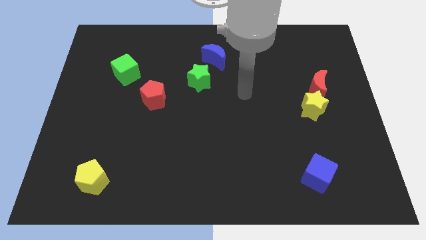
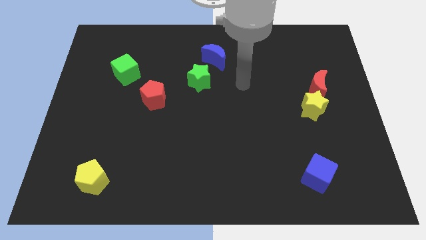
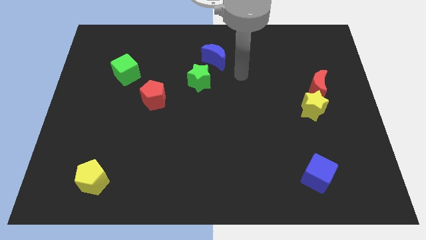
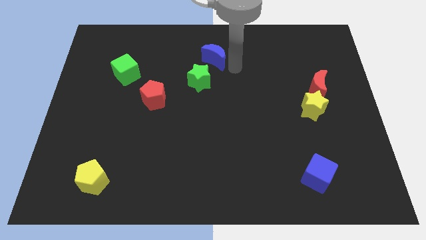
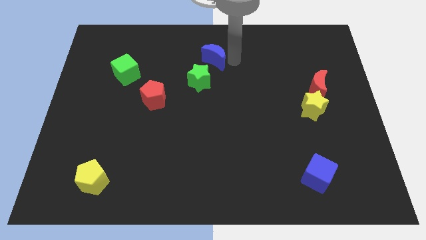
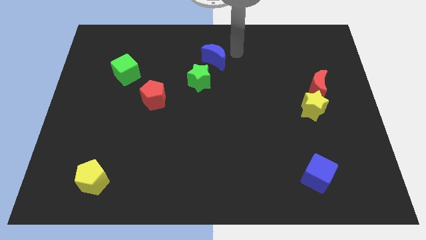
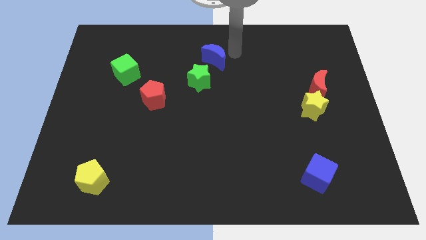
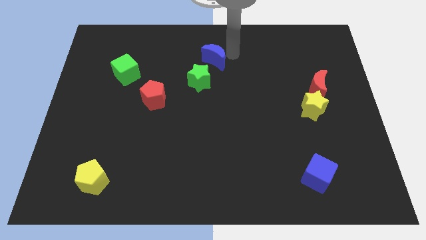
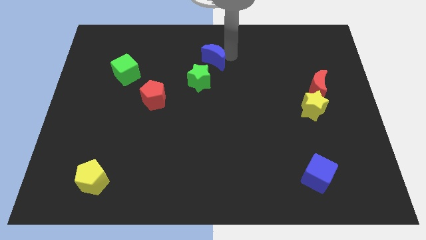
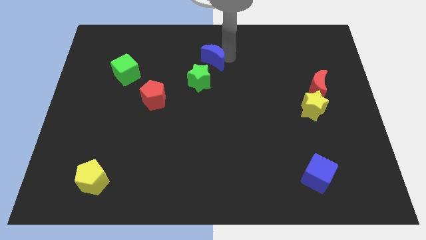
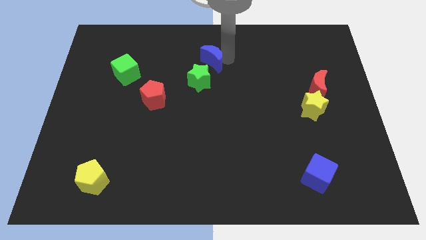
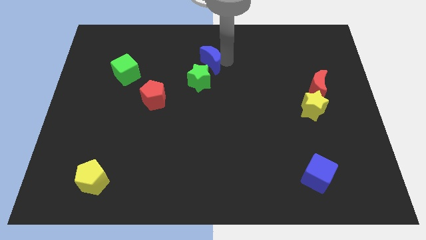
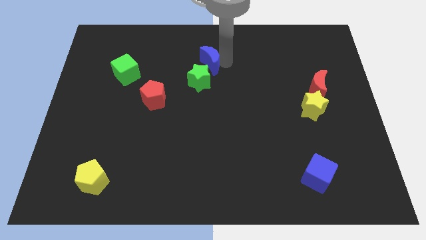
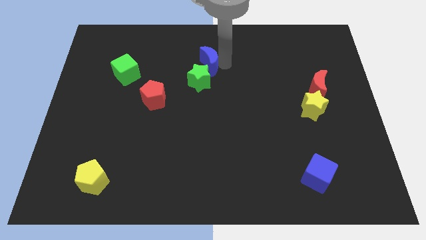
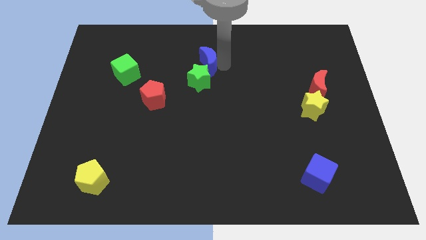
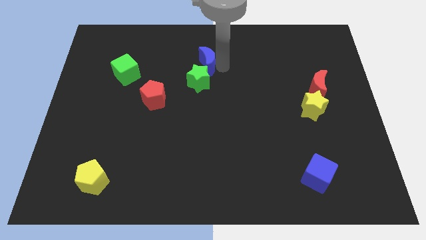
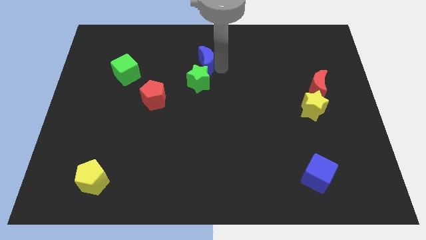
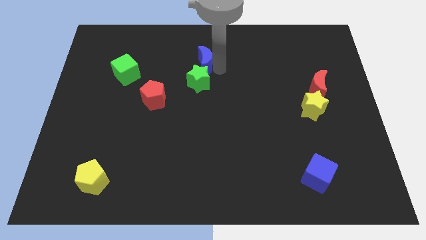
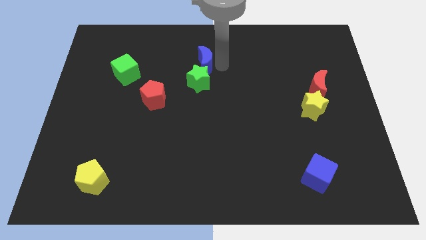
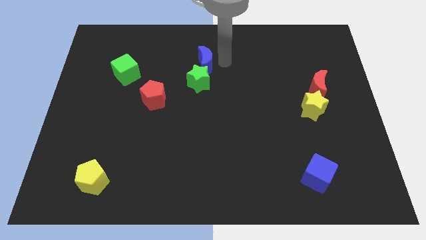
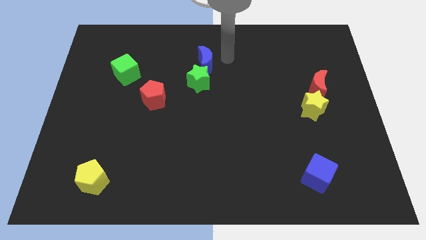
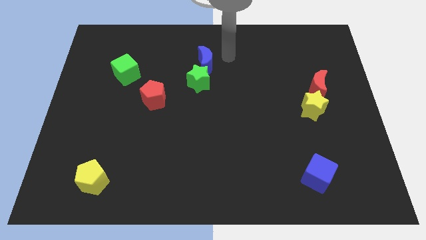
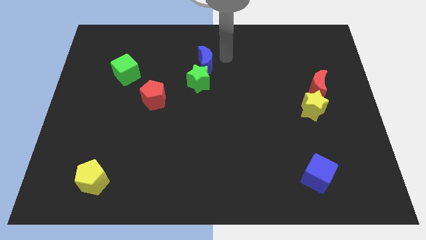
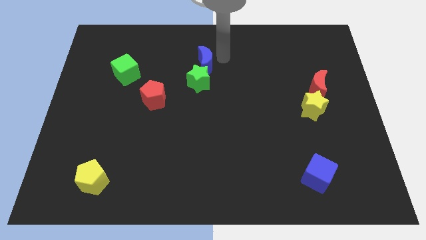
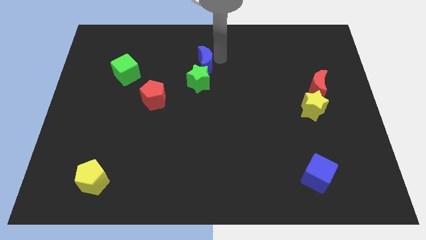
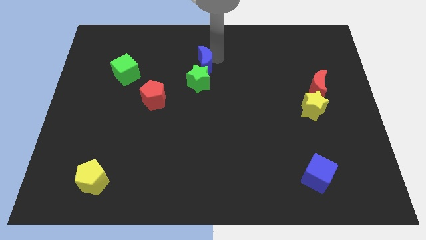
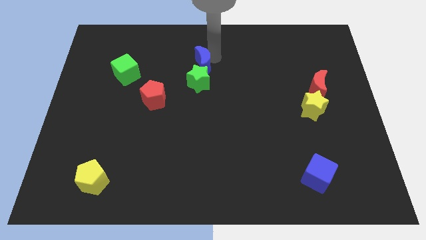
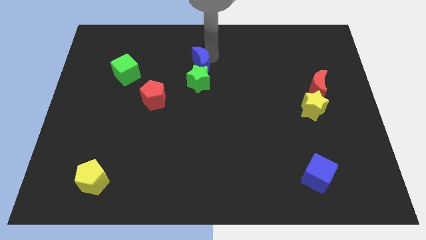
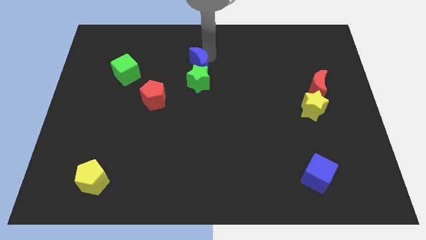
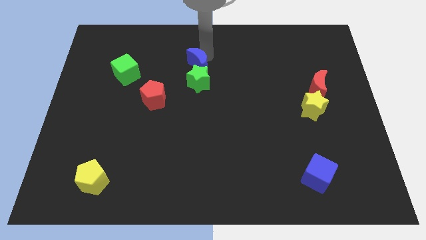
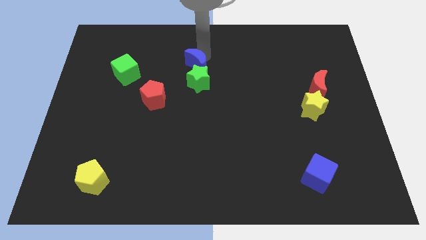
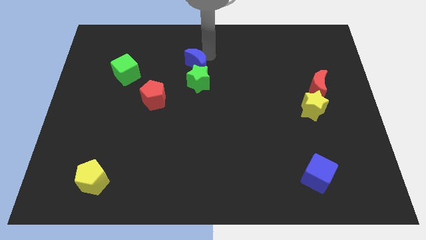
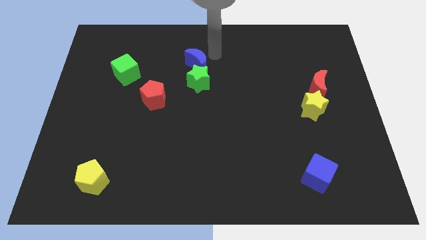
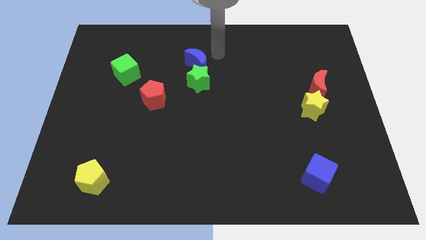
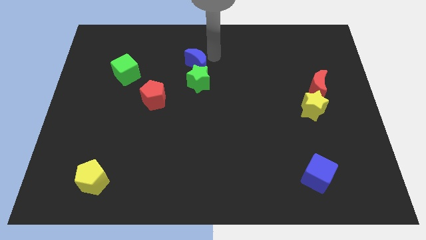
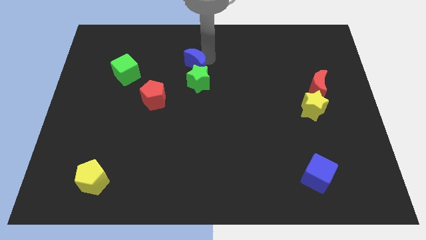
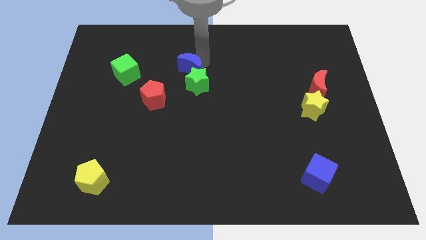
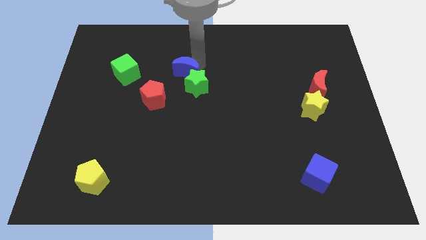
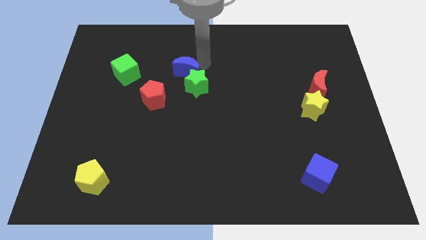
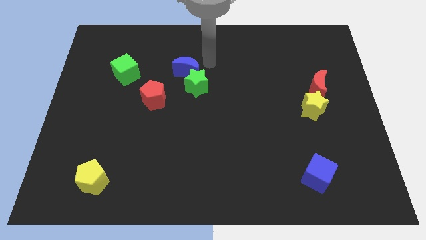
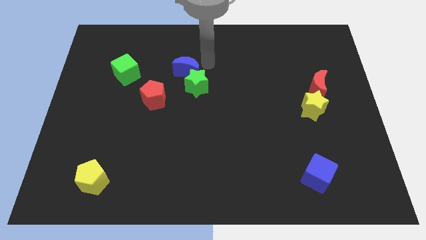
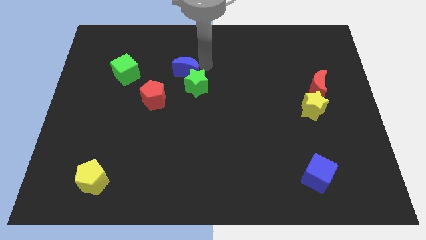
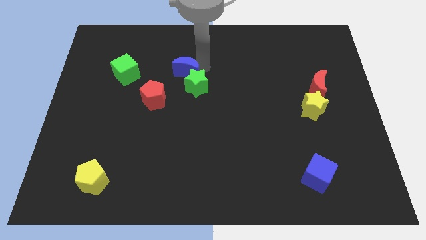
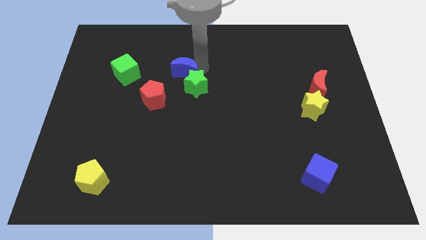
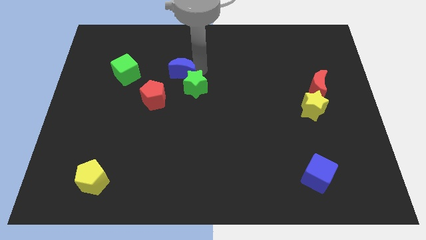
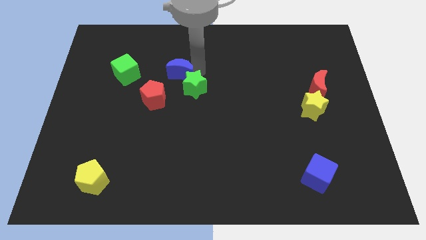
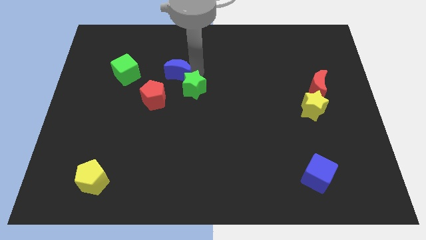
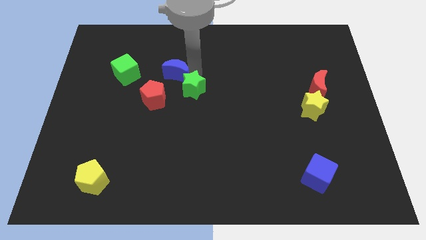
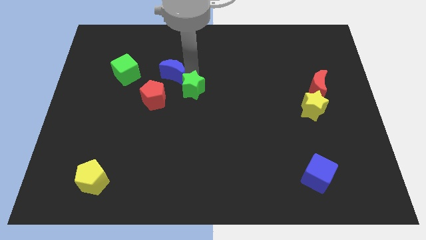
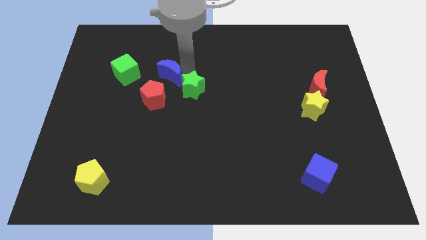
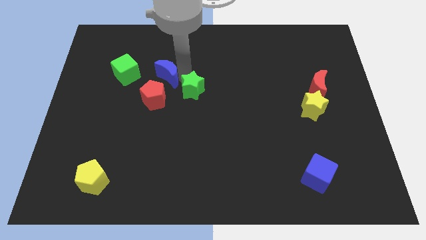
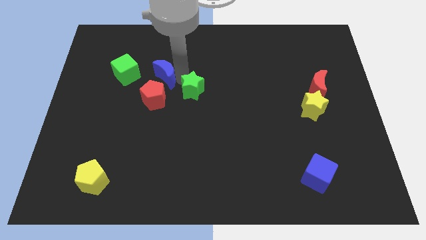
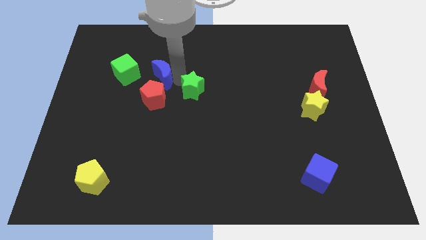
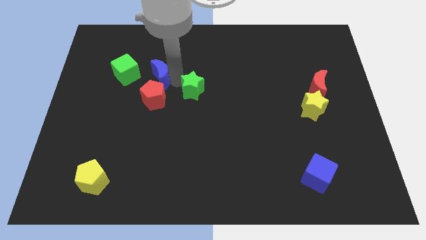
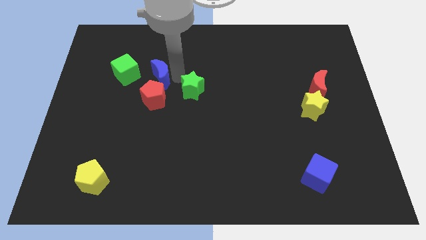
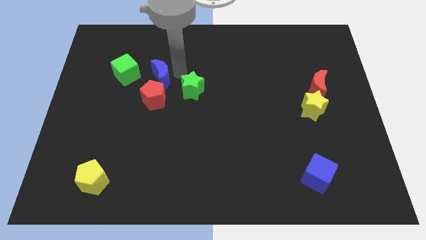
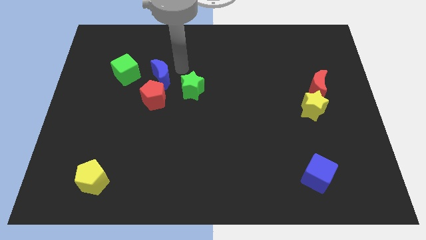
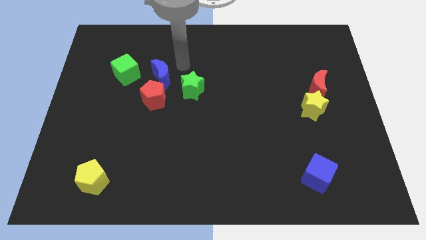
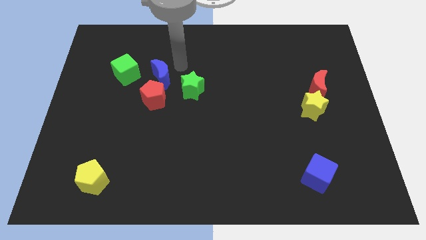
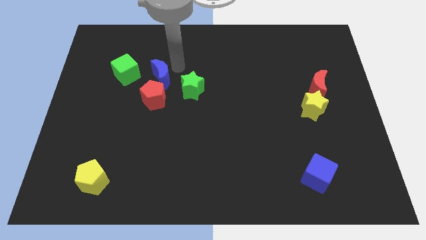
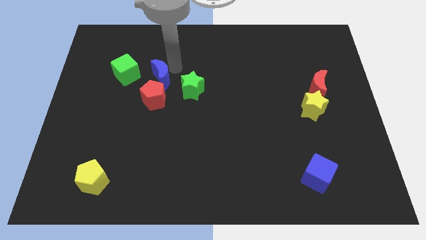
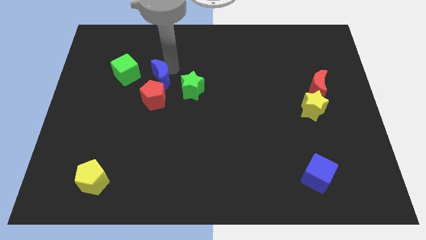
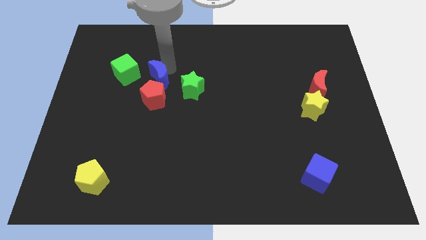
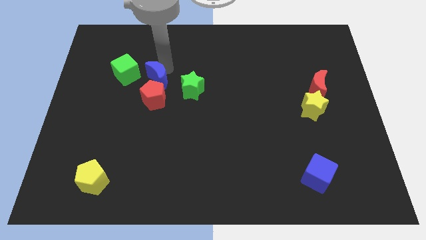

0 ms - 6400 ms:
put the blue moon to the bottom right side of the green cube

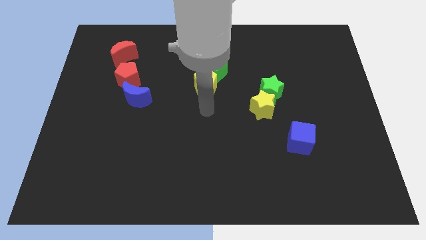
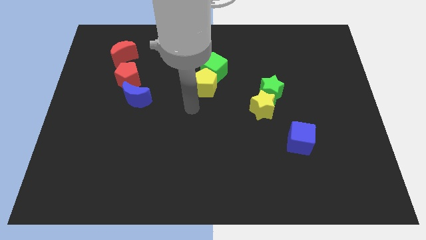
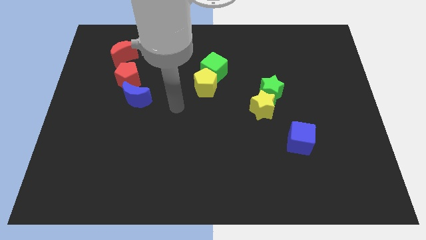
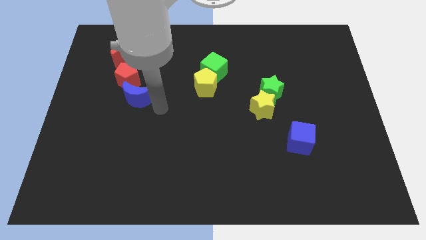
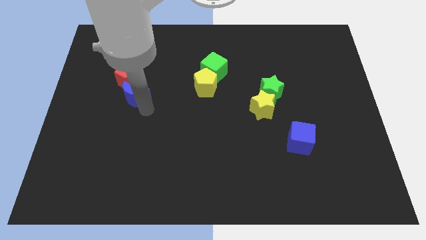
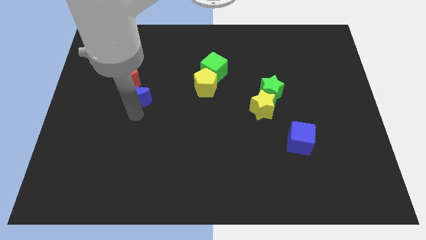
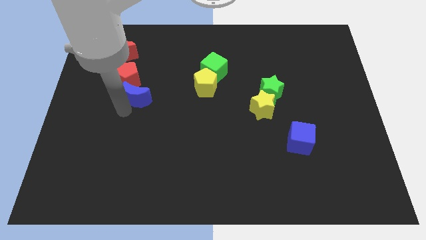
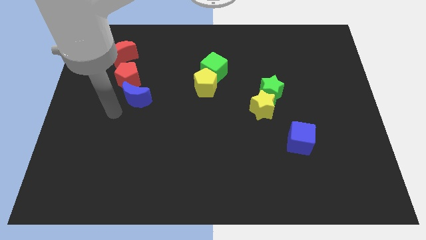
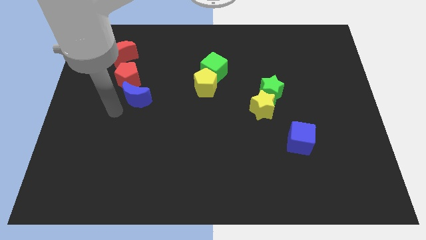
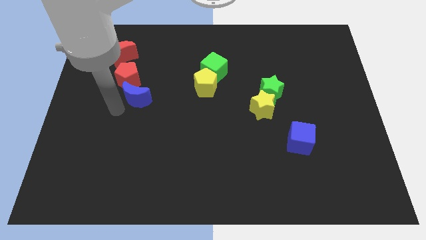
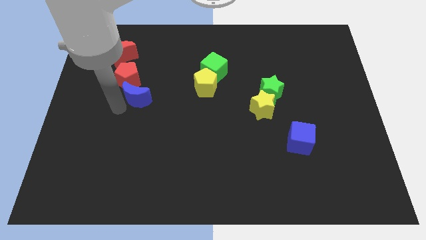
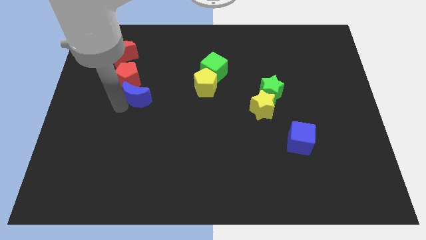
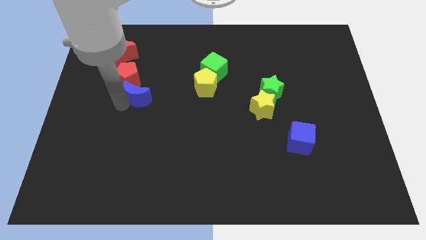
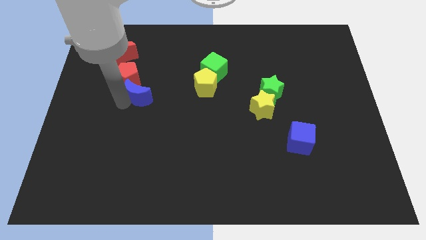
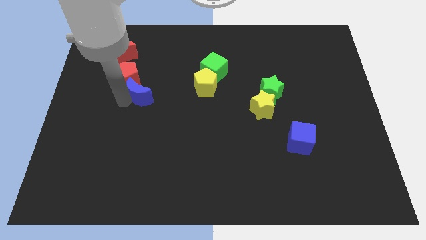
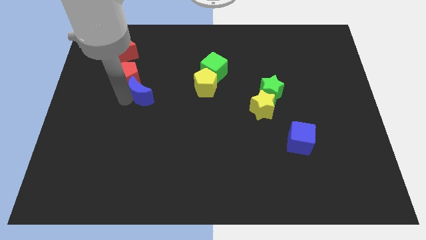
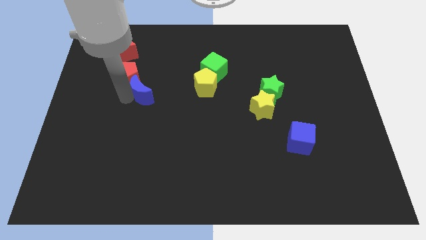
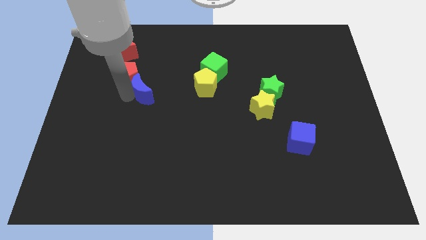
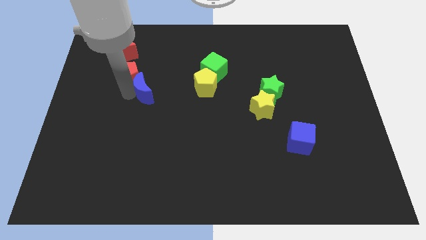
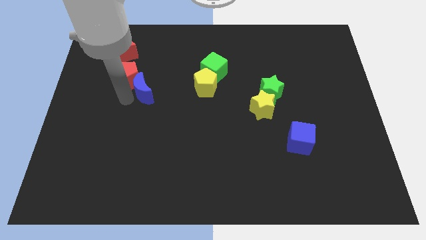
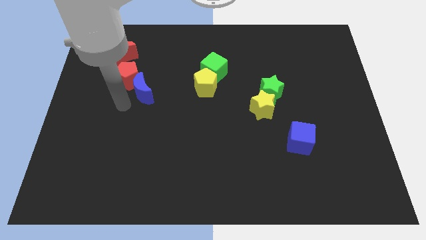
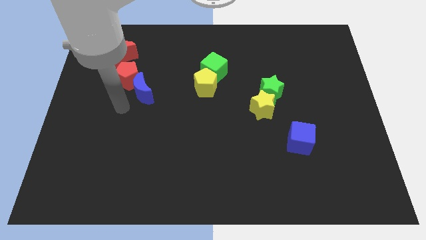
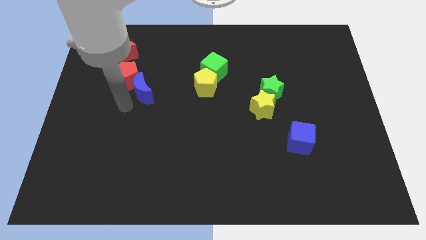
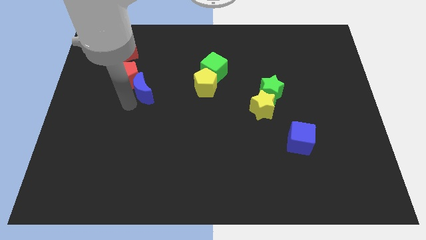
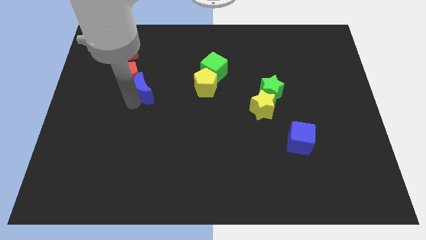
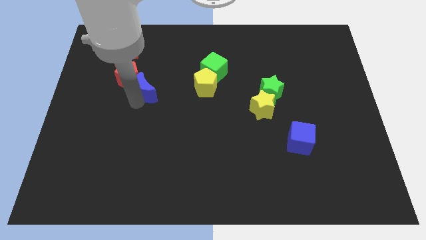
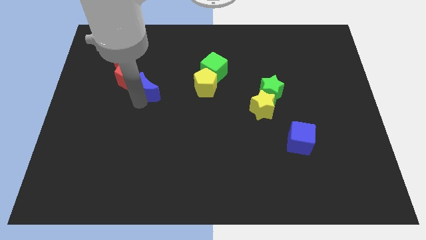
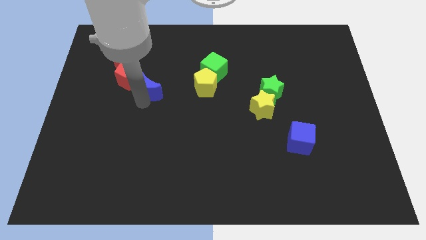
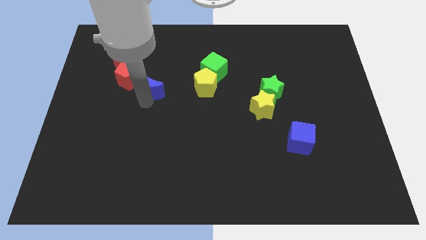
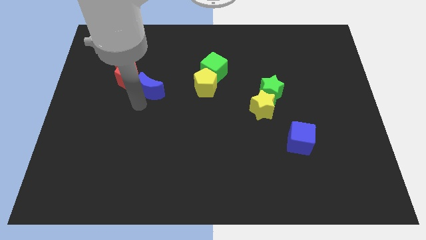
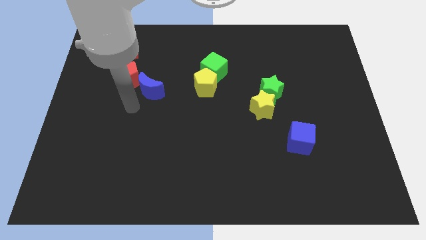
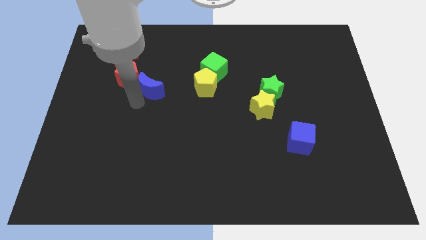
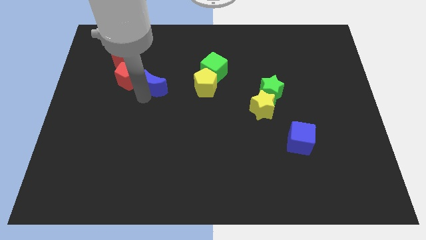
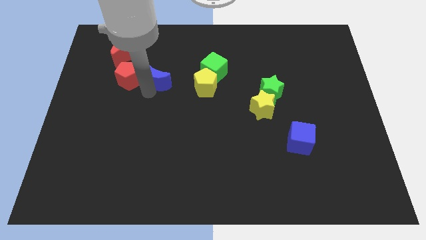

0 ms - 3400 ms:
move the blue moon to the left side of the green cube
